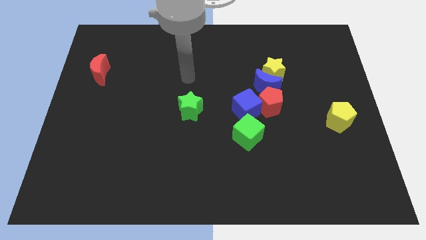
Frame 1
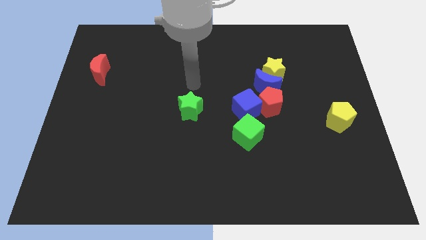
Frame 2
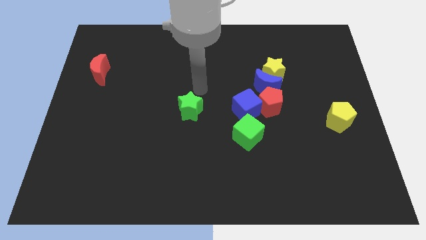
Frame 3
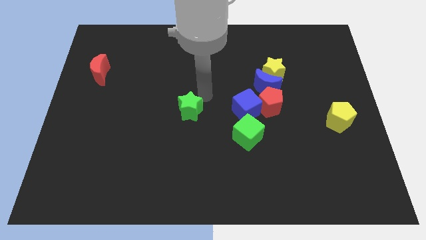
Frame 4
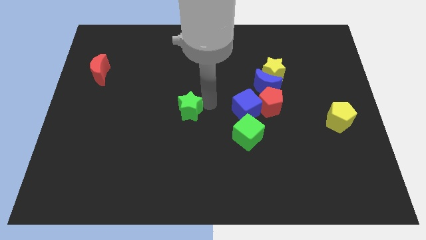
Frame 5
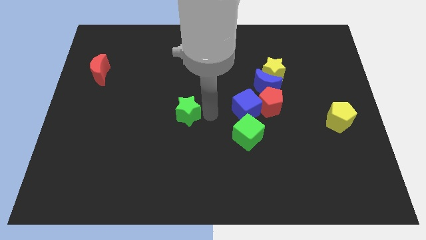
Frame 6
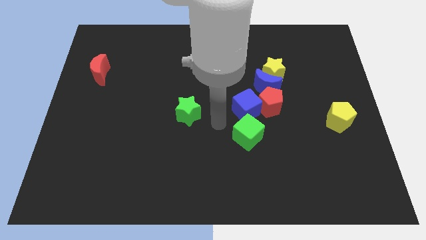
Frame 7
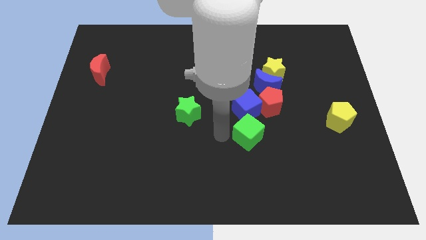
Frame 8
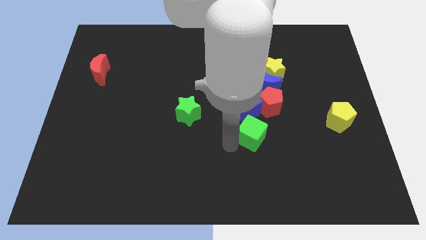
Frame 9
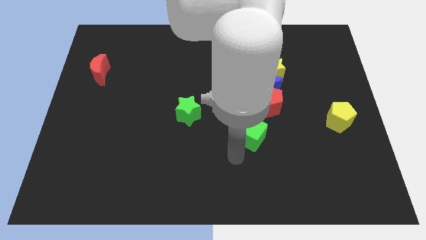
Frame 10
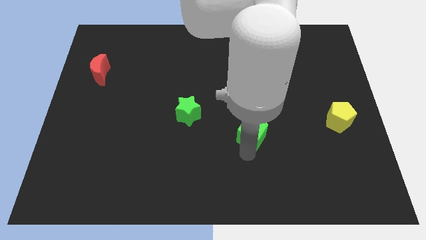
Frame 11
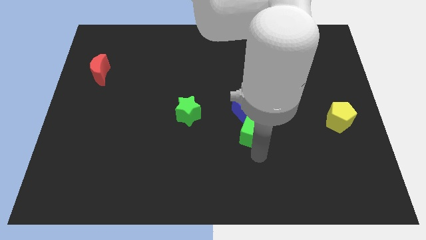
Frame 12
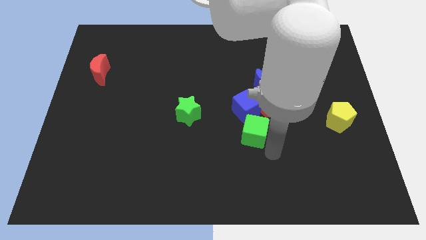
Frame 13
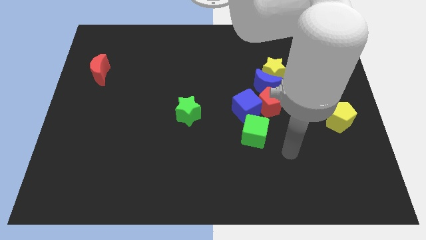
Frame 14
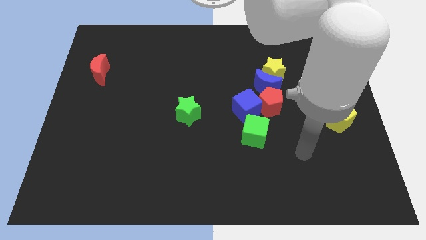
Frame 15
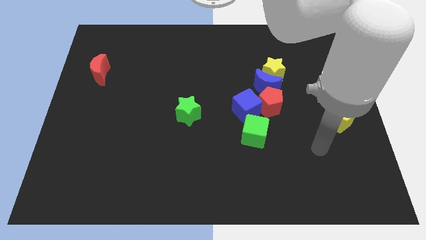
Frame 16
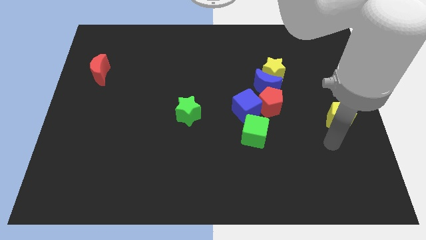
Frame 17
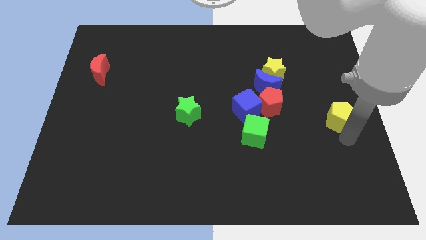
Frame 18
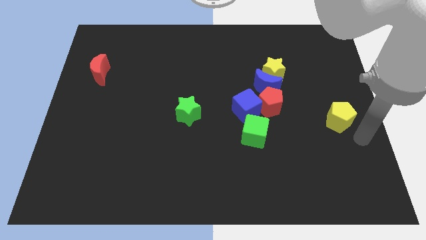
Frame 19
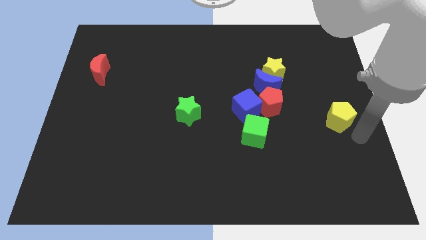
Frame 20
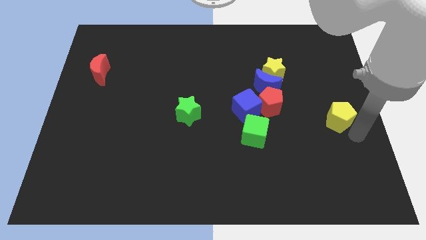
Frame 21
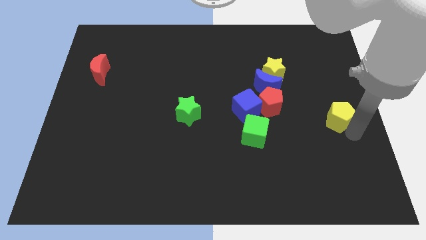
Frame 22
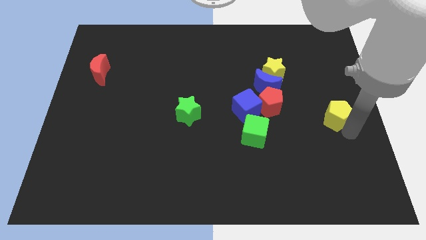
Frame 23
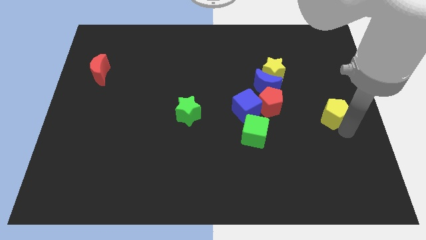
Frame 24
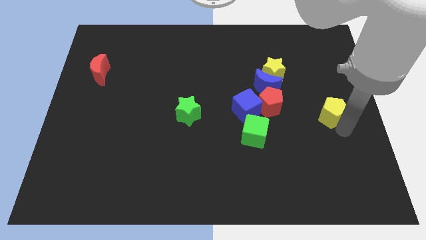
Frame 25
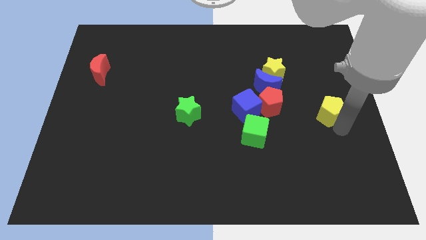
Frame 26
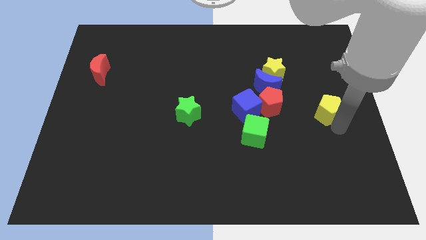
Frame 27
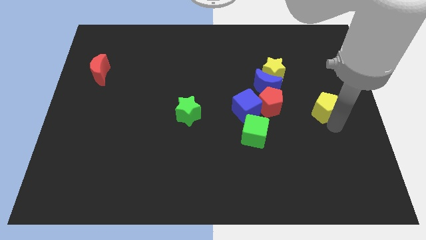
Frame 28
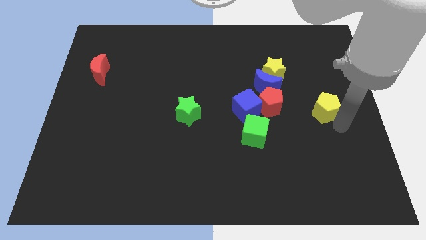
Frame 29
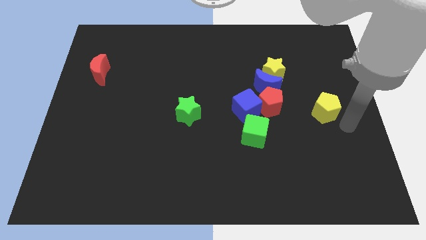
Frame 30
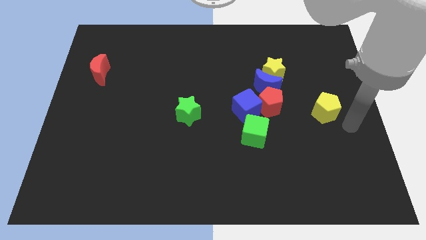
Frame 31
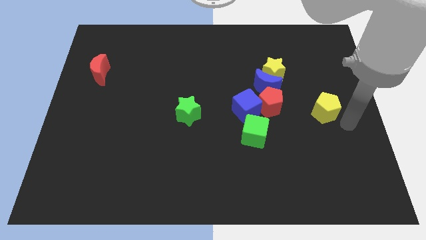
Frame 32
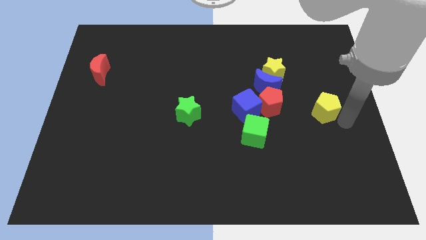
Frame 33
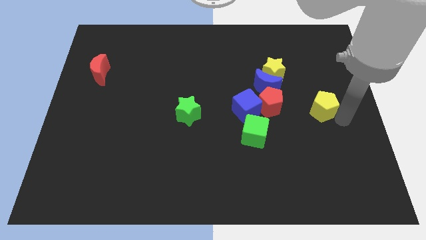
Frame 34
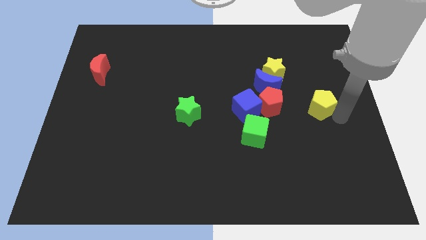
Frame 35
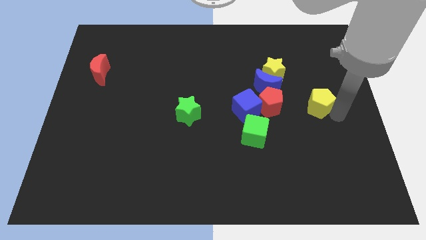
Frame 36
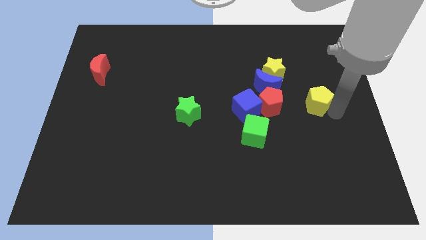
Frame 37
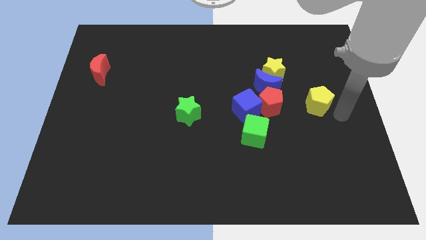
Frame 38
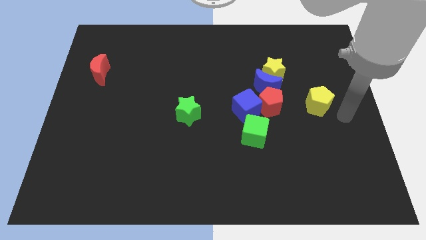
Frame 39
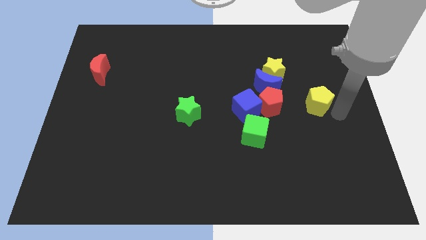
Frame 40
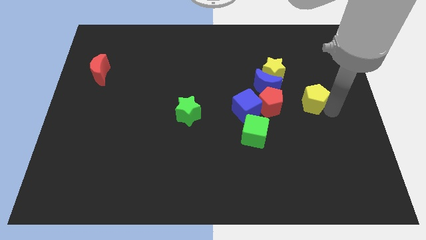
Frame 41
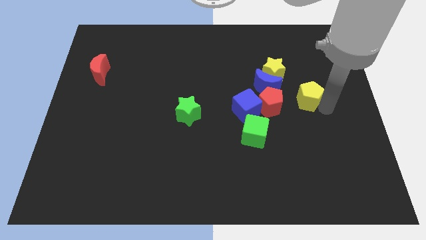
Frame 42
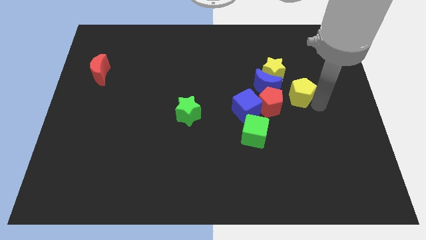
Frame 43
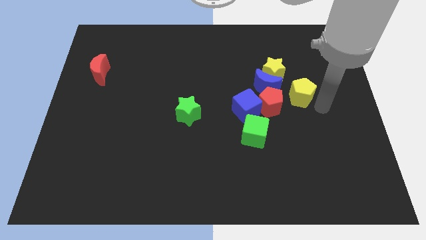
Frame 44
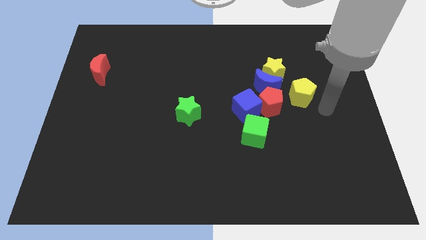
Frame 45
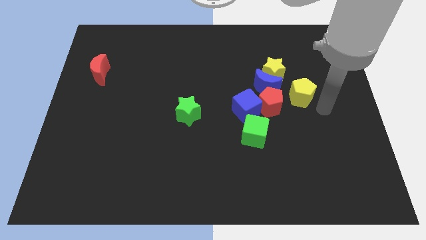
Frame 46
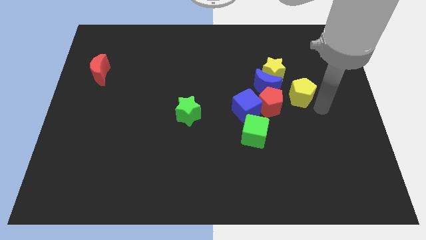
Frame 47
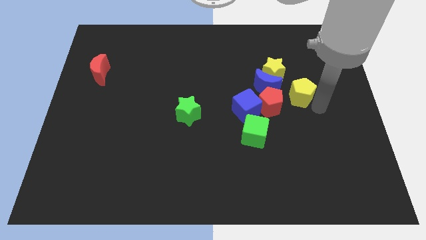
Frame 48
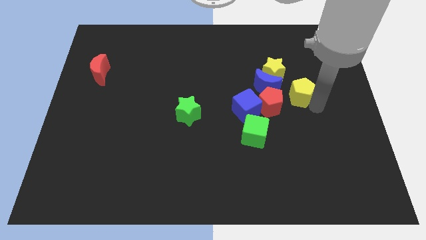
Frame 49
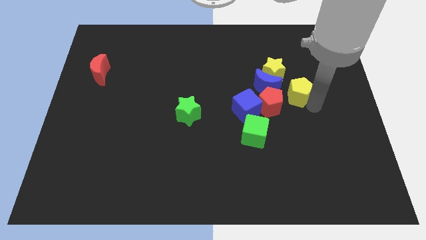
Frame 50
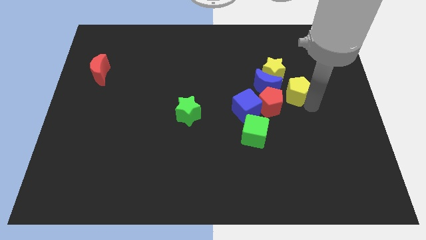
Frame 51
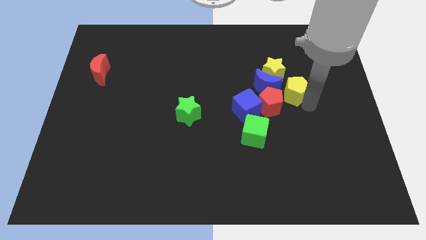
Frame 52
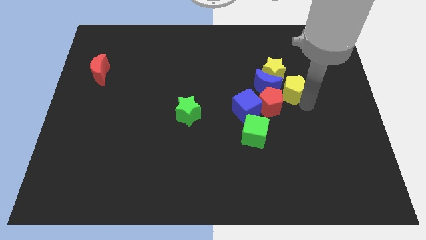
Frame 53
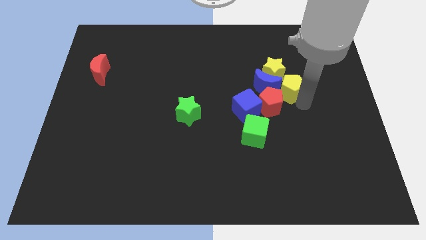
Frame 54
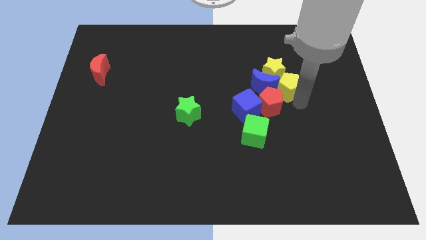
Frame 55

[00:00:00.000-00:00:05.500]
push the yellow pentagon next to the yellow star

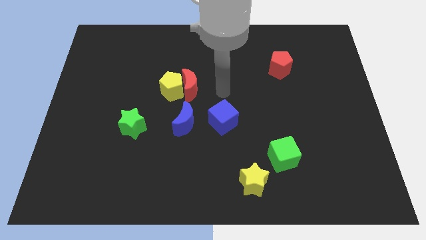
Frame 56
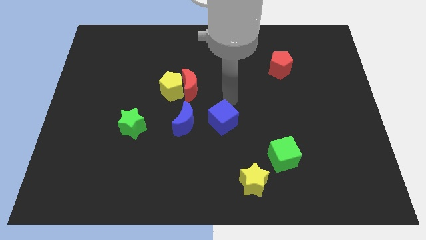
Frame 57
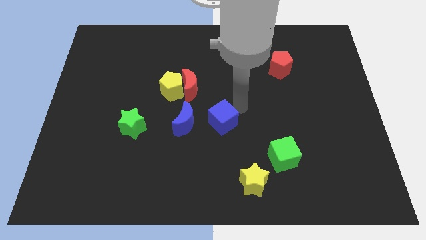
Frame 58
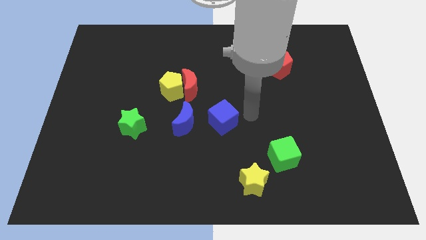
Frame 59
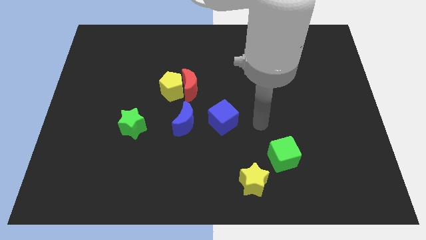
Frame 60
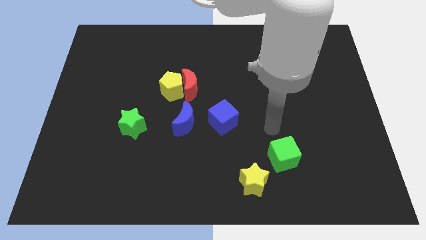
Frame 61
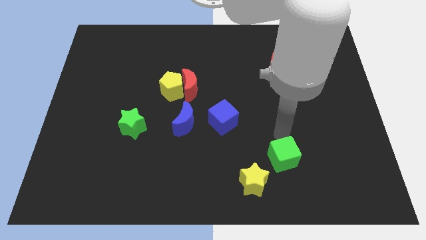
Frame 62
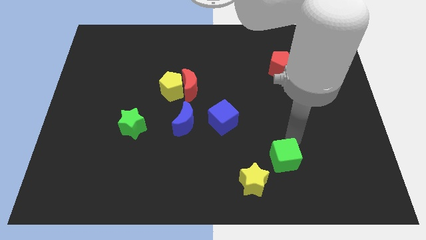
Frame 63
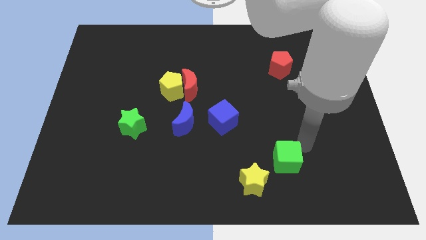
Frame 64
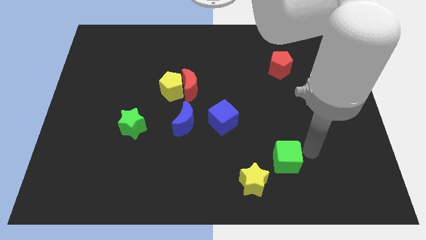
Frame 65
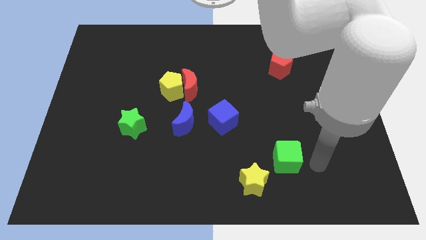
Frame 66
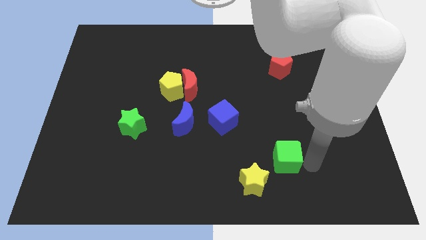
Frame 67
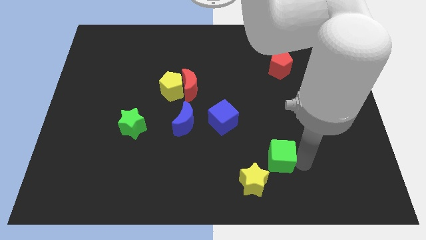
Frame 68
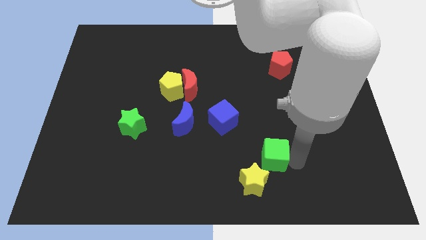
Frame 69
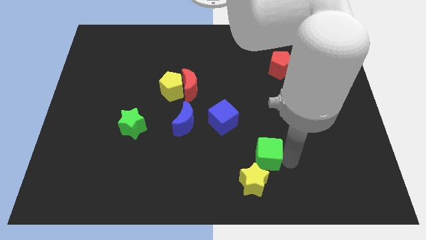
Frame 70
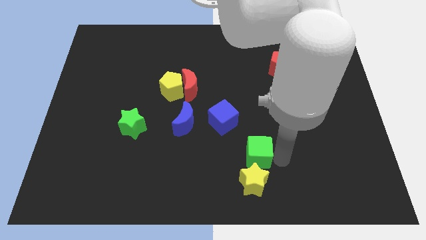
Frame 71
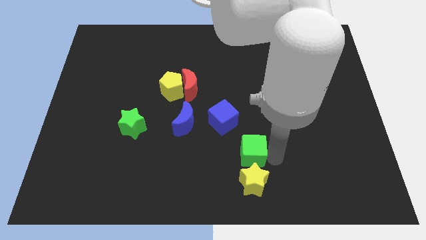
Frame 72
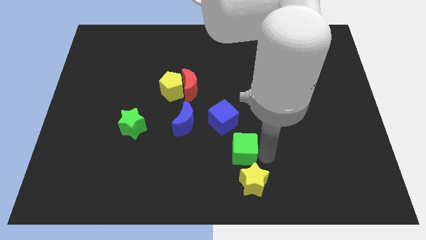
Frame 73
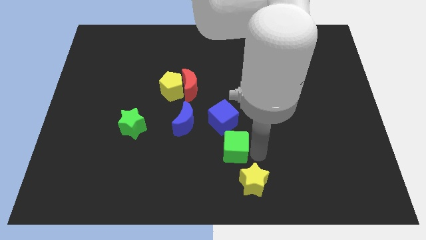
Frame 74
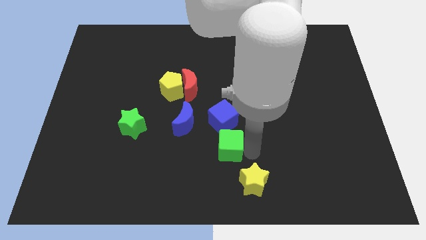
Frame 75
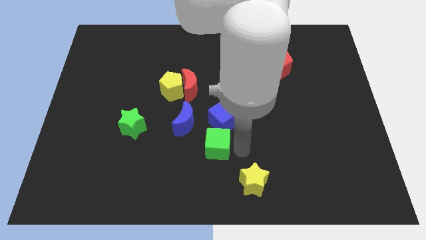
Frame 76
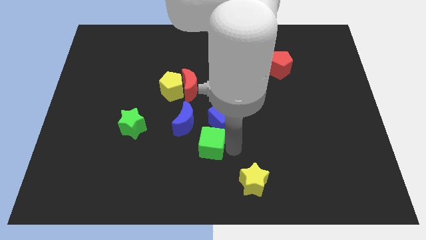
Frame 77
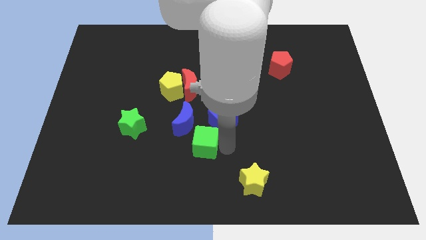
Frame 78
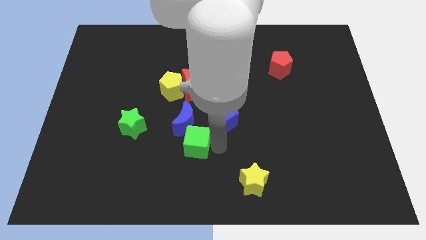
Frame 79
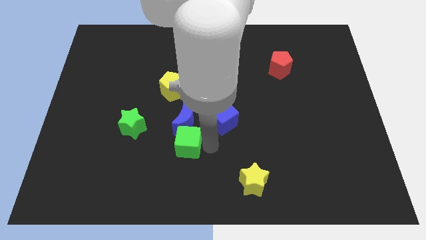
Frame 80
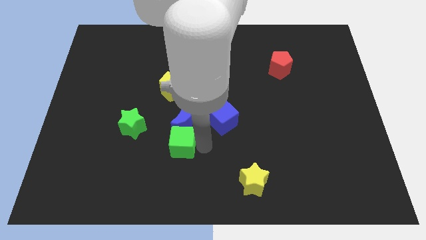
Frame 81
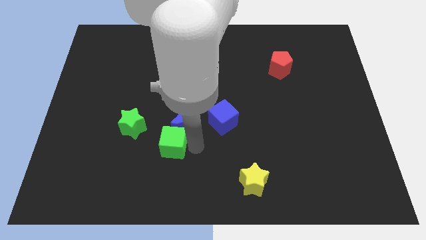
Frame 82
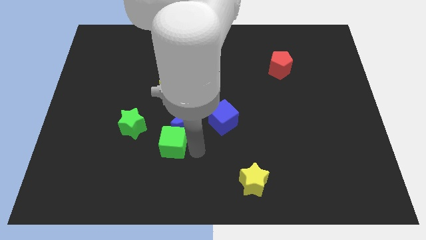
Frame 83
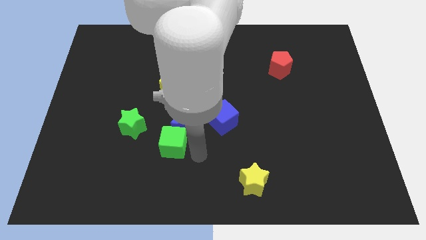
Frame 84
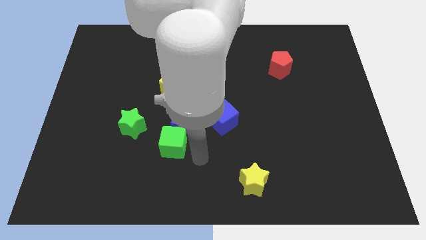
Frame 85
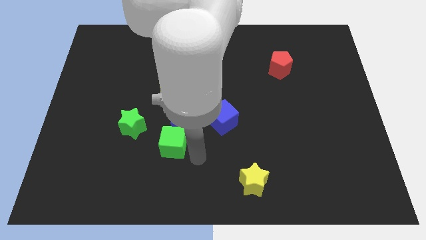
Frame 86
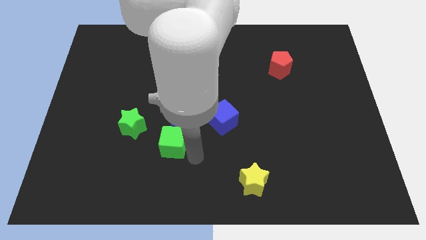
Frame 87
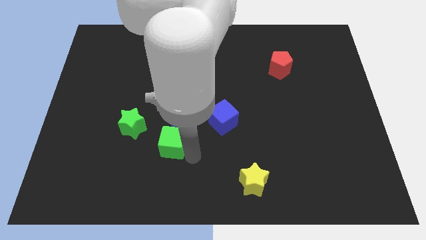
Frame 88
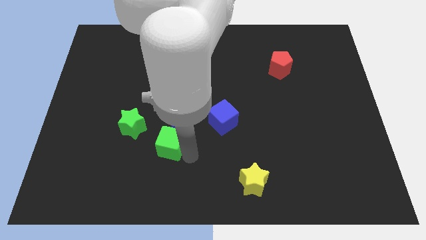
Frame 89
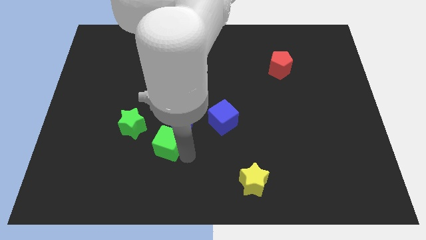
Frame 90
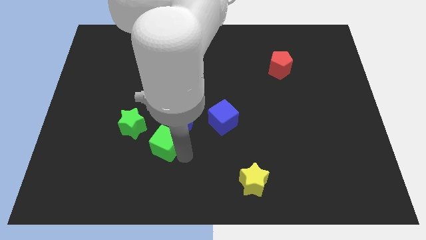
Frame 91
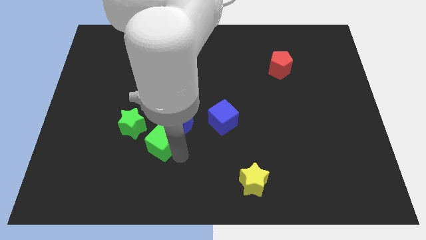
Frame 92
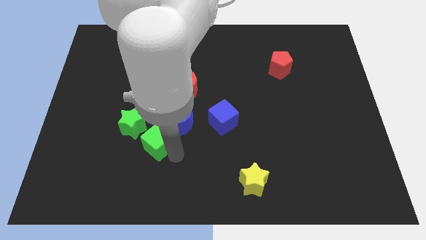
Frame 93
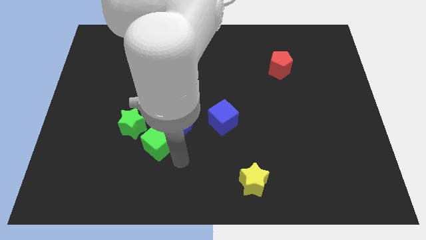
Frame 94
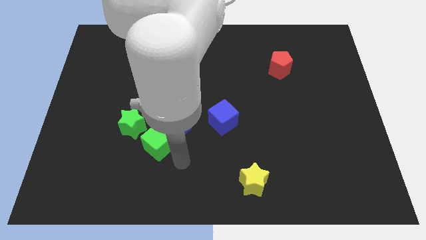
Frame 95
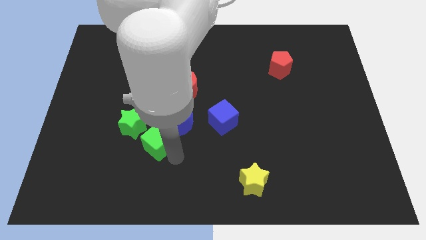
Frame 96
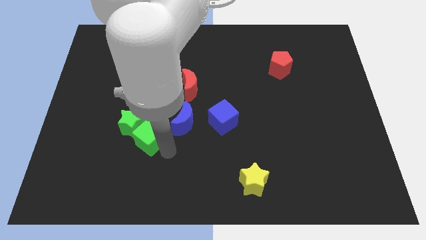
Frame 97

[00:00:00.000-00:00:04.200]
put the green cube next to the green star
